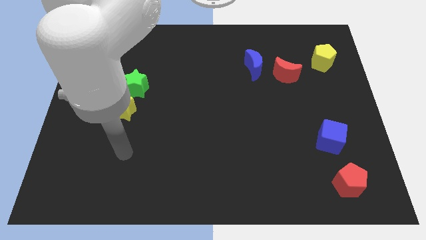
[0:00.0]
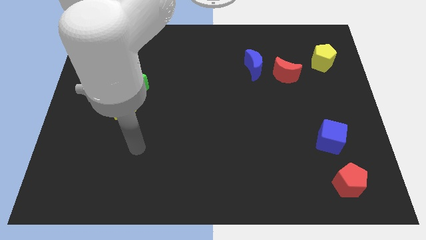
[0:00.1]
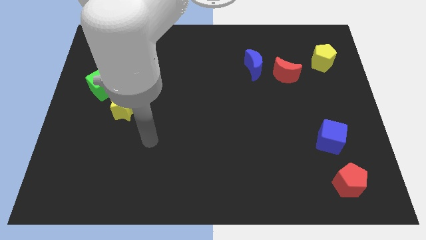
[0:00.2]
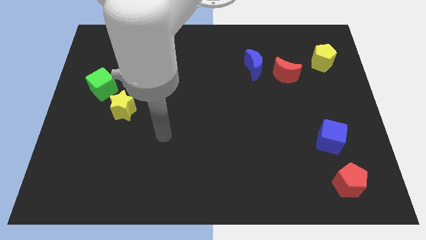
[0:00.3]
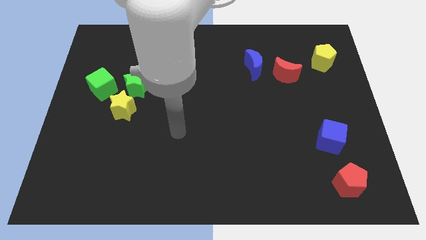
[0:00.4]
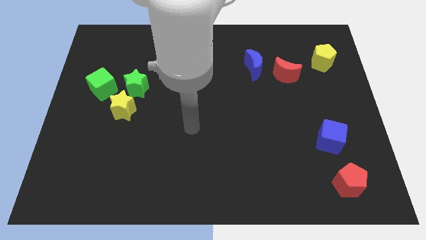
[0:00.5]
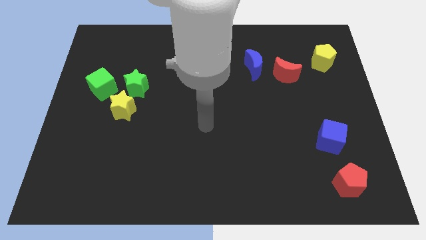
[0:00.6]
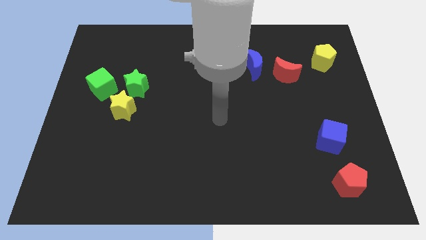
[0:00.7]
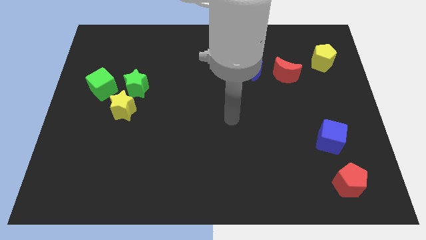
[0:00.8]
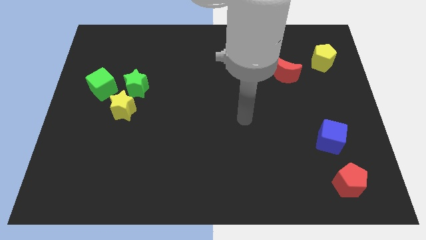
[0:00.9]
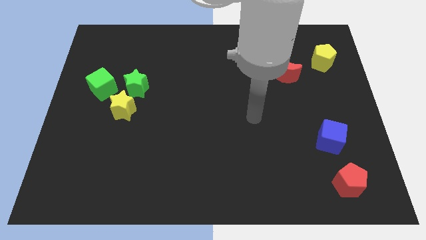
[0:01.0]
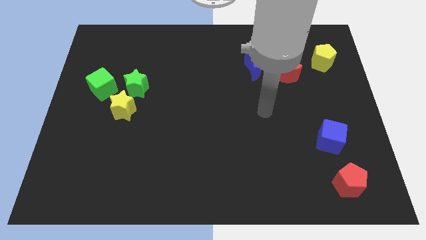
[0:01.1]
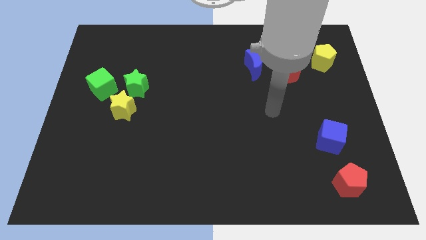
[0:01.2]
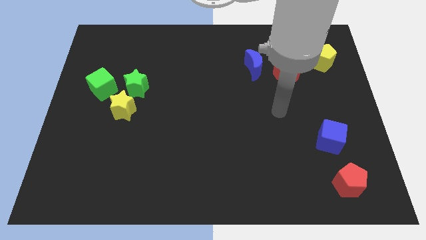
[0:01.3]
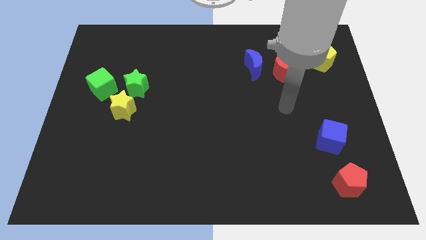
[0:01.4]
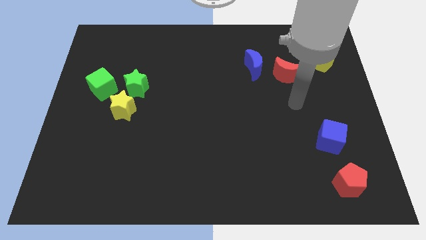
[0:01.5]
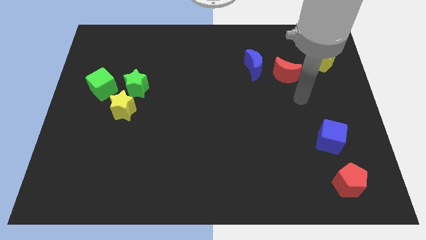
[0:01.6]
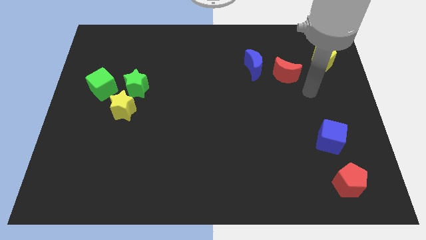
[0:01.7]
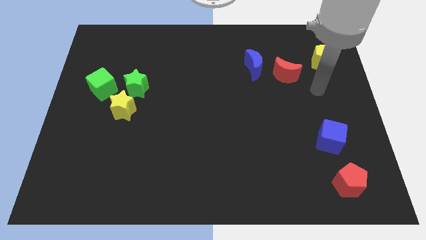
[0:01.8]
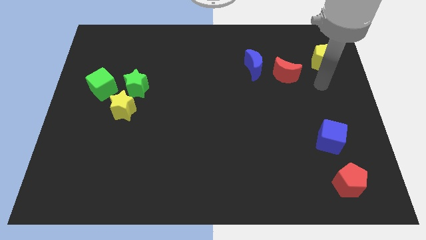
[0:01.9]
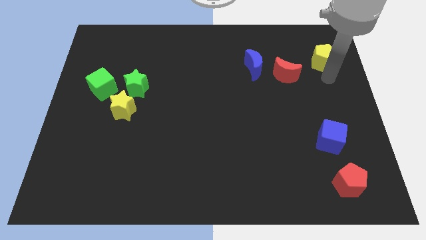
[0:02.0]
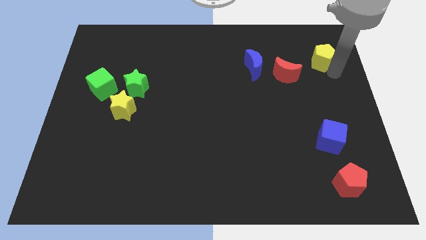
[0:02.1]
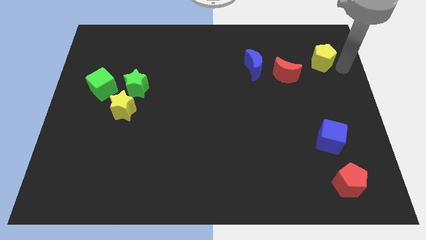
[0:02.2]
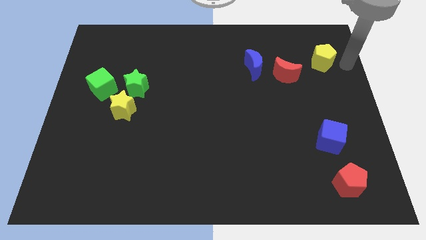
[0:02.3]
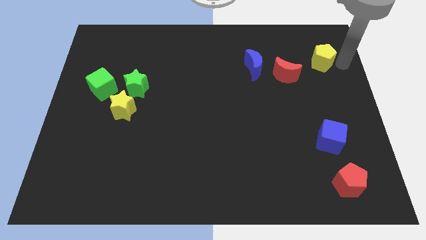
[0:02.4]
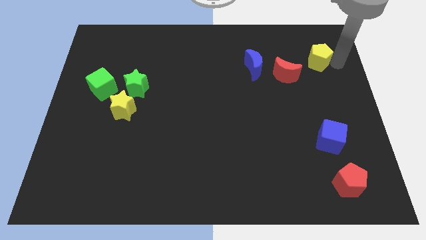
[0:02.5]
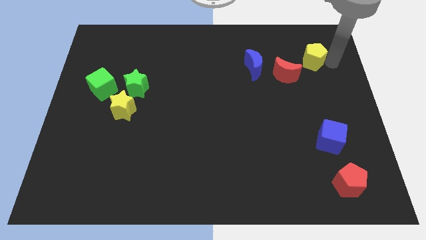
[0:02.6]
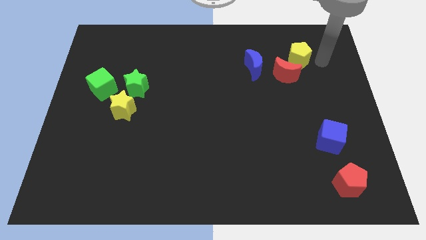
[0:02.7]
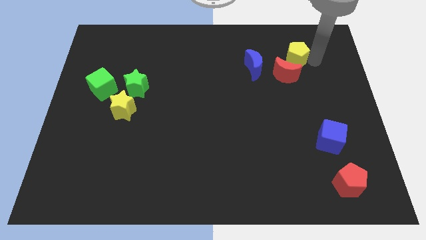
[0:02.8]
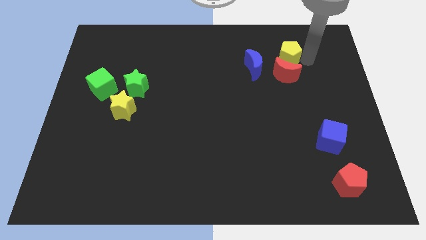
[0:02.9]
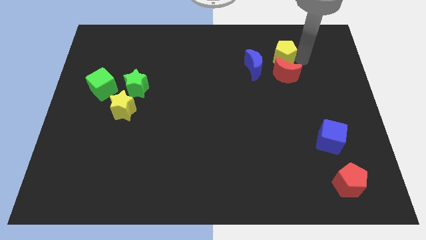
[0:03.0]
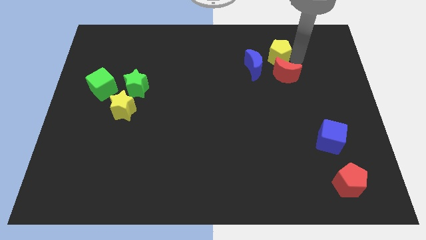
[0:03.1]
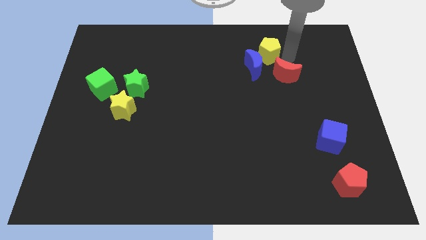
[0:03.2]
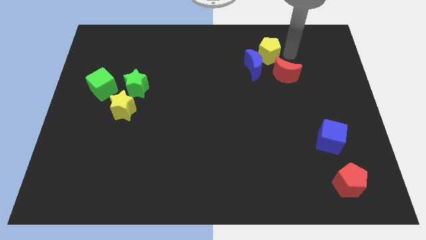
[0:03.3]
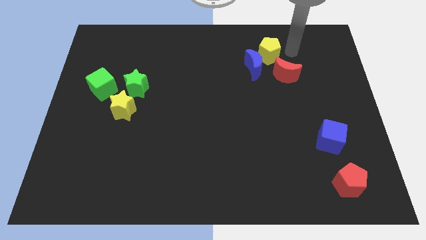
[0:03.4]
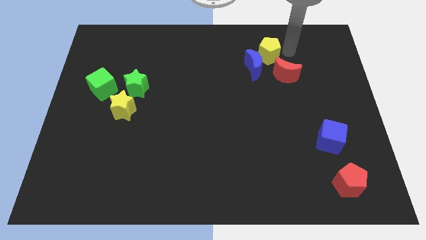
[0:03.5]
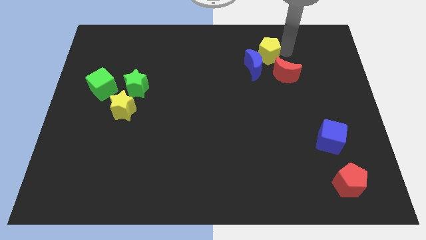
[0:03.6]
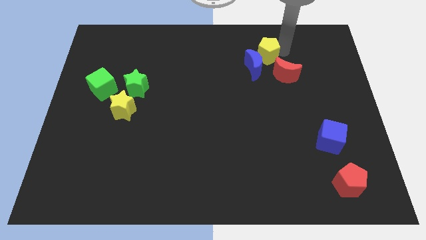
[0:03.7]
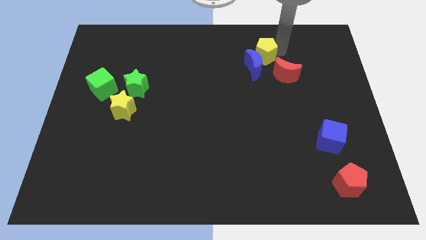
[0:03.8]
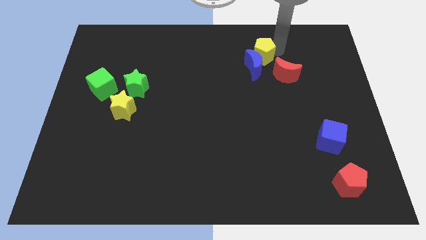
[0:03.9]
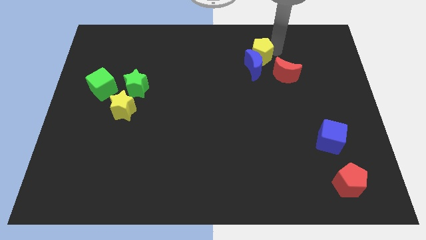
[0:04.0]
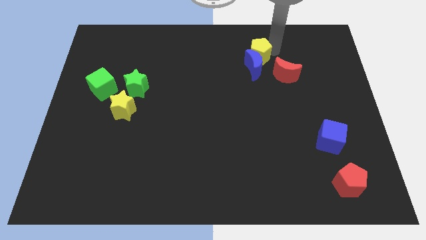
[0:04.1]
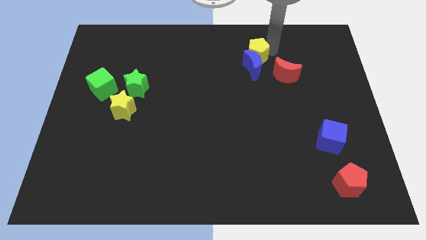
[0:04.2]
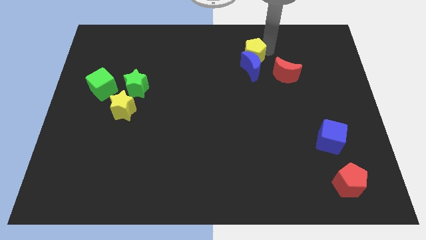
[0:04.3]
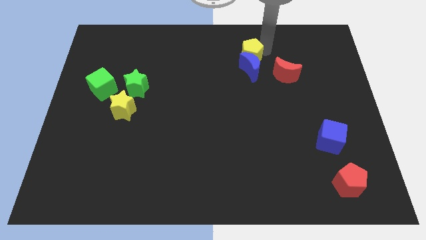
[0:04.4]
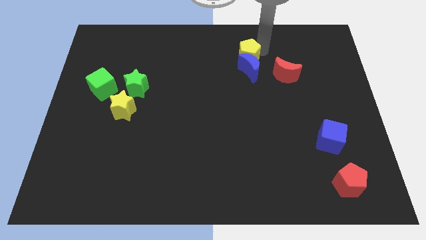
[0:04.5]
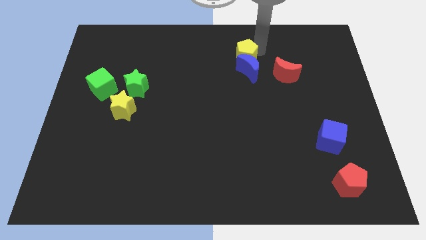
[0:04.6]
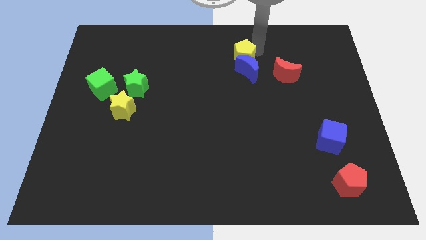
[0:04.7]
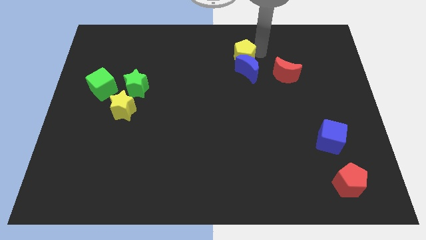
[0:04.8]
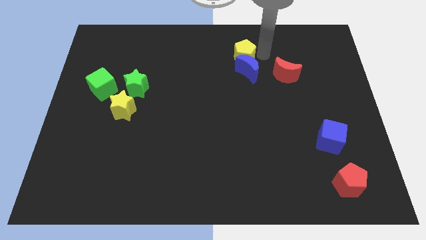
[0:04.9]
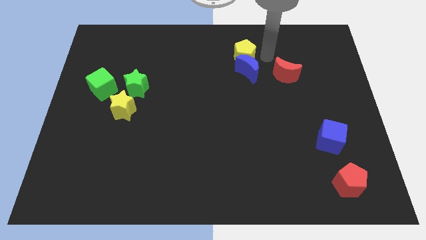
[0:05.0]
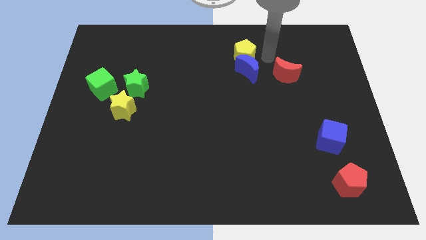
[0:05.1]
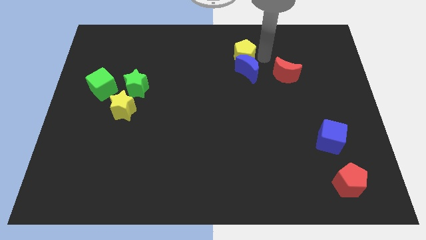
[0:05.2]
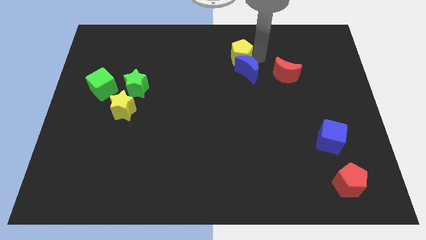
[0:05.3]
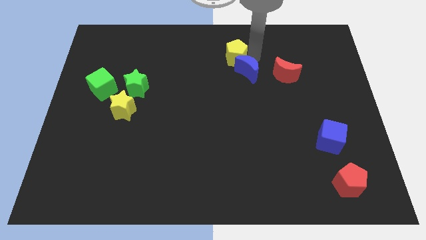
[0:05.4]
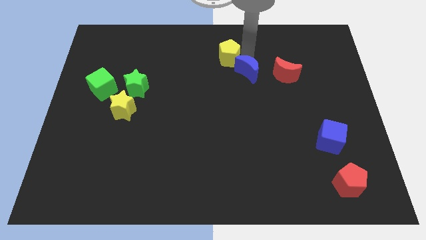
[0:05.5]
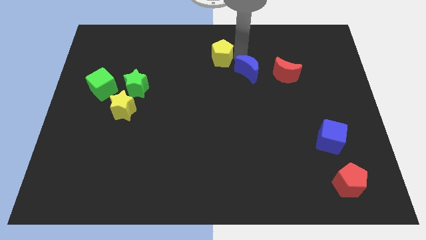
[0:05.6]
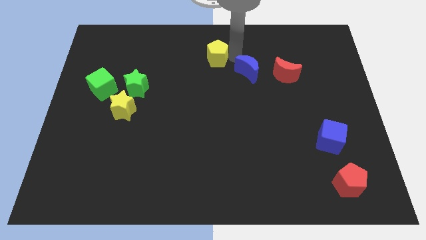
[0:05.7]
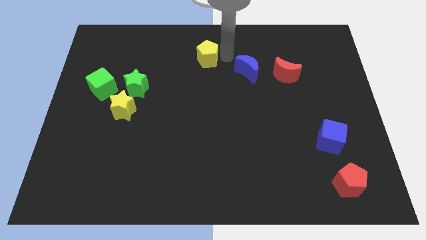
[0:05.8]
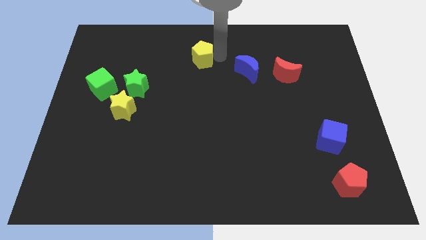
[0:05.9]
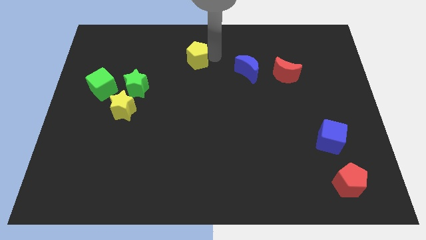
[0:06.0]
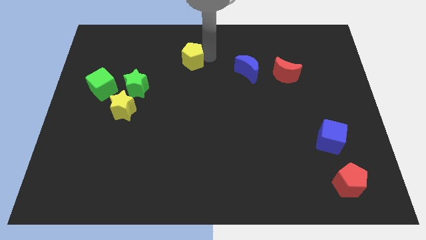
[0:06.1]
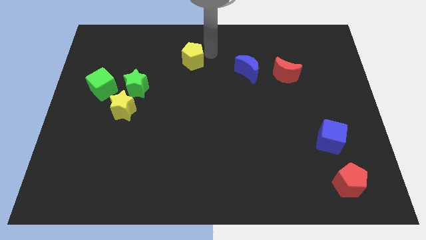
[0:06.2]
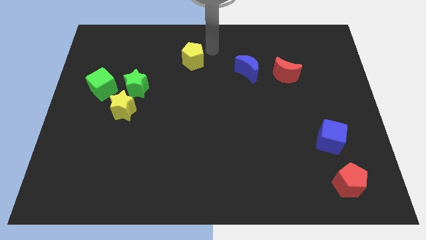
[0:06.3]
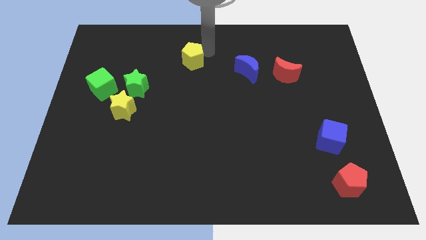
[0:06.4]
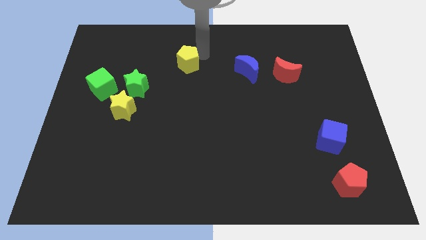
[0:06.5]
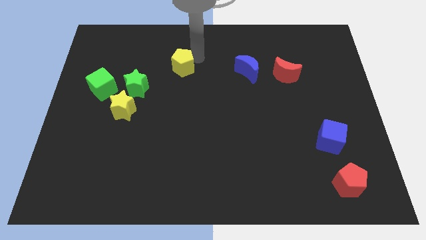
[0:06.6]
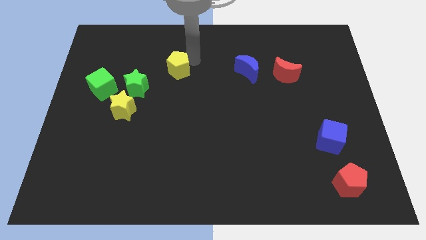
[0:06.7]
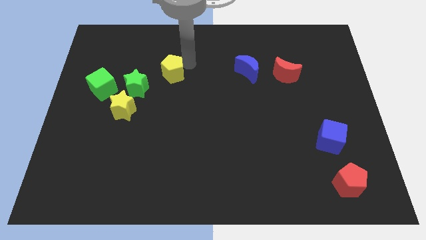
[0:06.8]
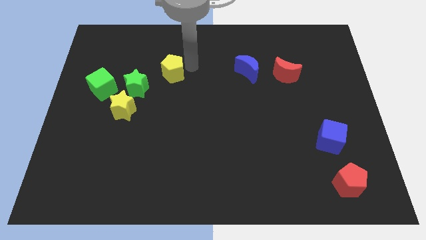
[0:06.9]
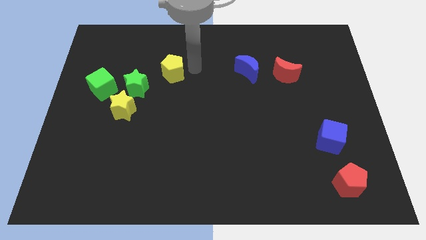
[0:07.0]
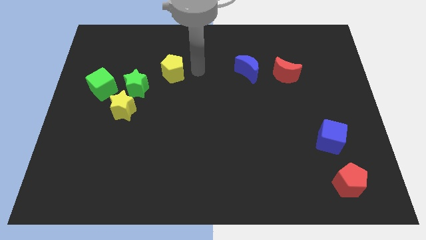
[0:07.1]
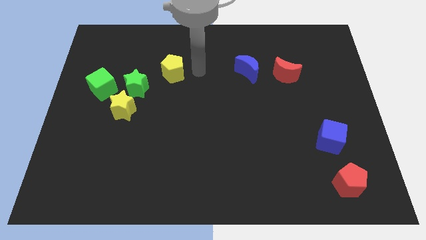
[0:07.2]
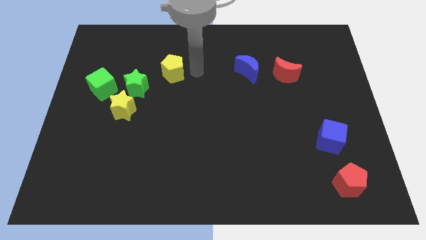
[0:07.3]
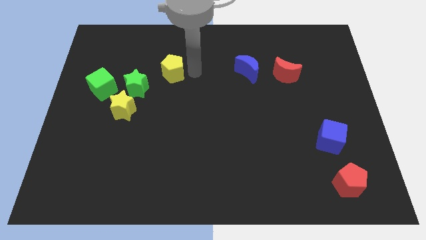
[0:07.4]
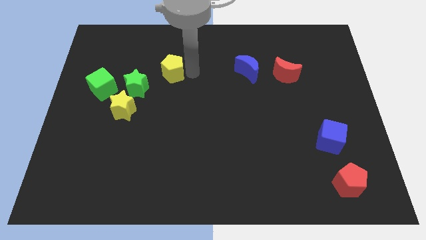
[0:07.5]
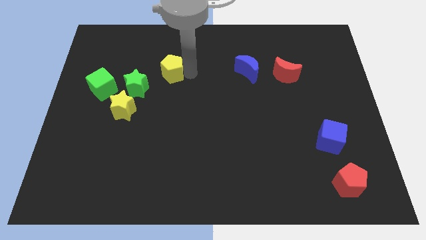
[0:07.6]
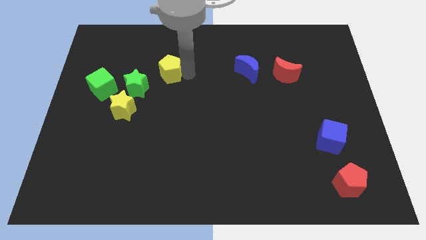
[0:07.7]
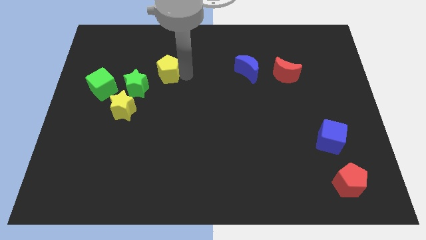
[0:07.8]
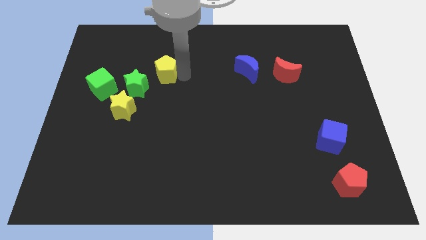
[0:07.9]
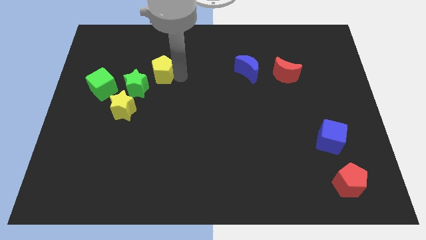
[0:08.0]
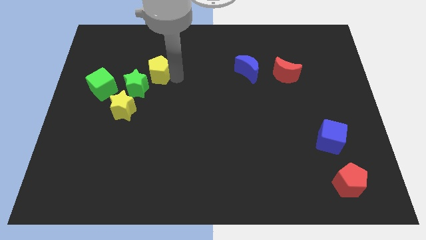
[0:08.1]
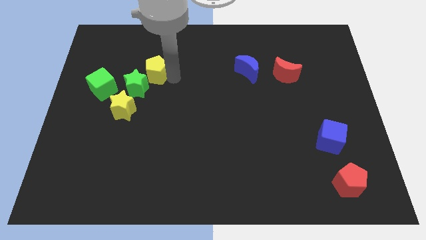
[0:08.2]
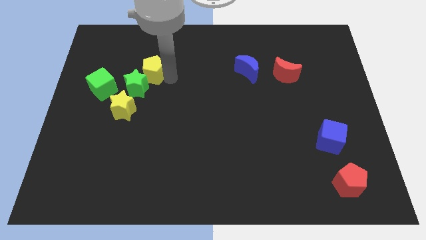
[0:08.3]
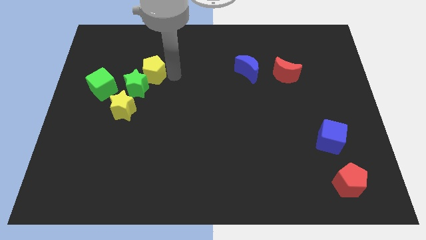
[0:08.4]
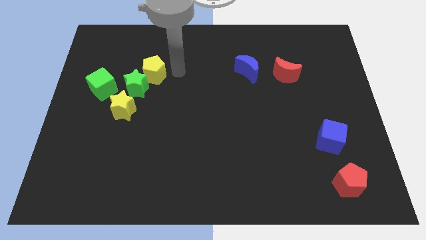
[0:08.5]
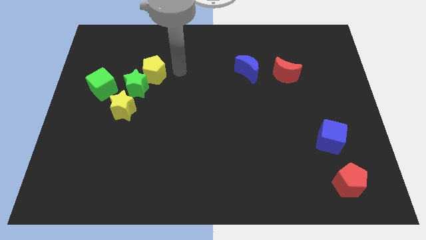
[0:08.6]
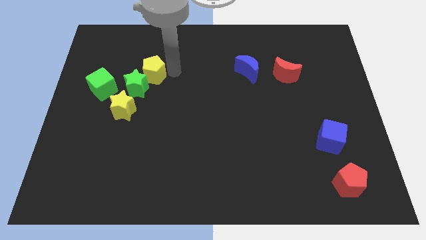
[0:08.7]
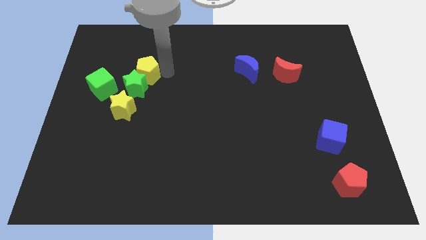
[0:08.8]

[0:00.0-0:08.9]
slide the yellow pentagon to the top of the yellow star
